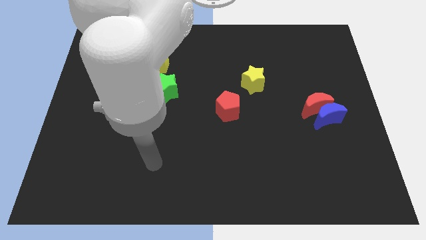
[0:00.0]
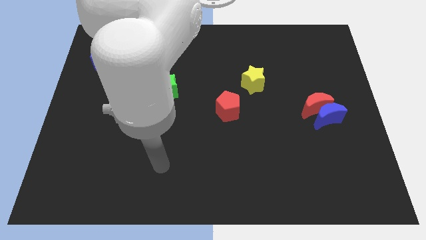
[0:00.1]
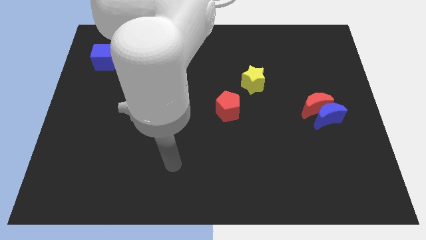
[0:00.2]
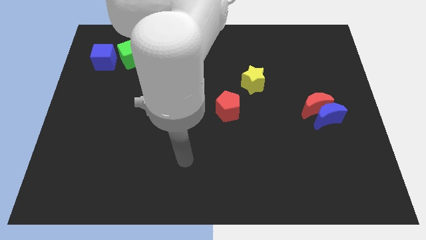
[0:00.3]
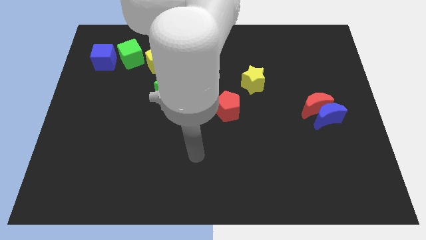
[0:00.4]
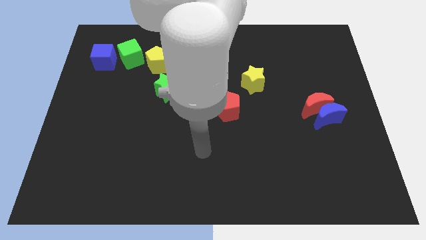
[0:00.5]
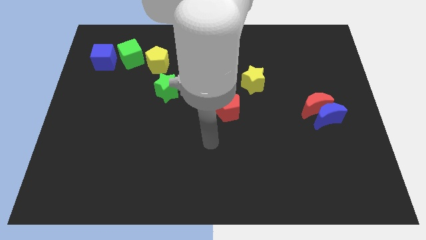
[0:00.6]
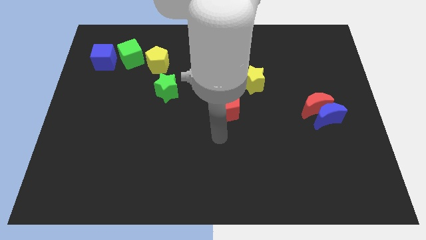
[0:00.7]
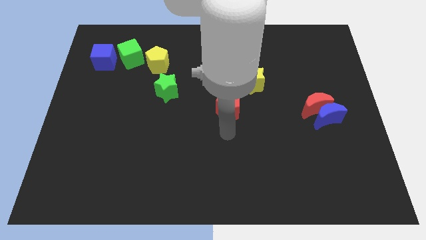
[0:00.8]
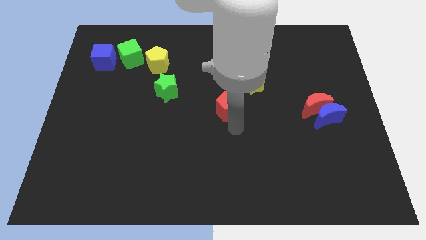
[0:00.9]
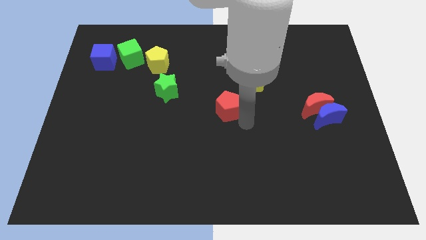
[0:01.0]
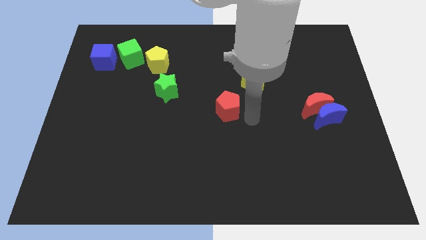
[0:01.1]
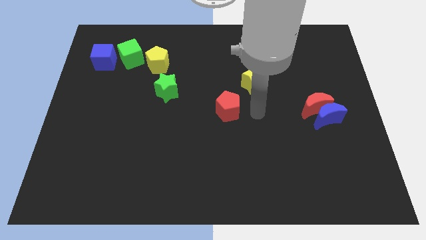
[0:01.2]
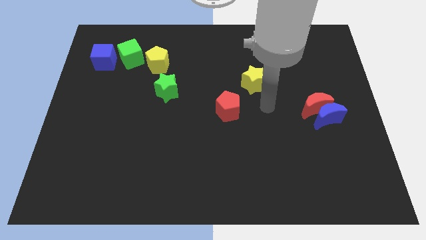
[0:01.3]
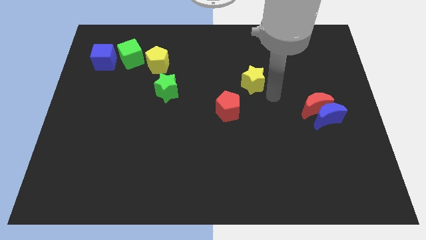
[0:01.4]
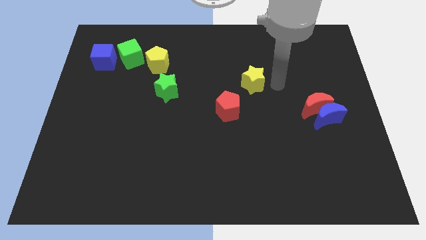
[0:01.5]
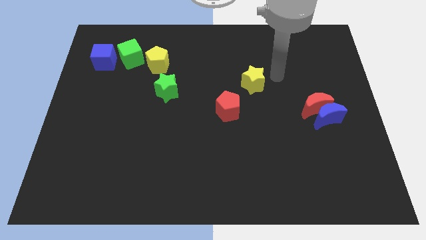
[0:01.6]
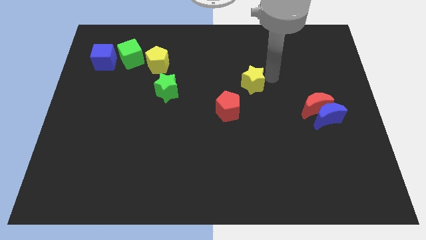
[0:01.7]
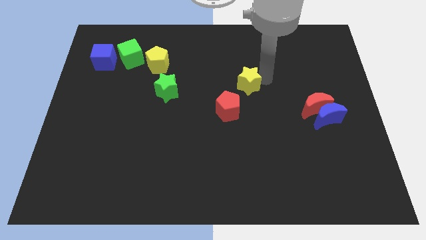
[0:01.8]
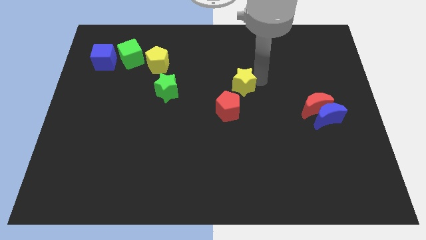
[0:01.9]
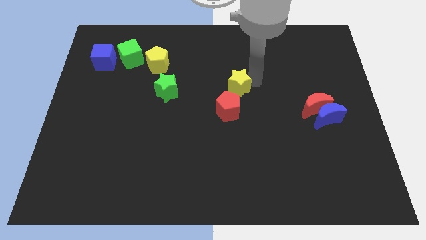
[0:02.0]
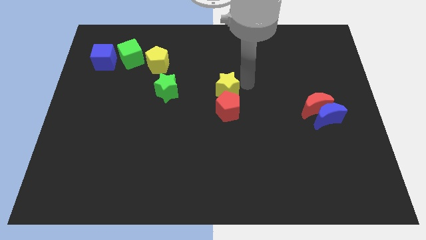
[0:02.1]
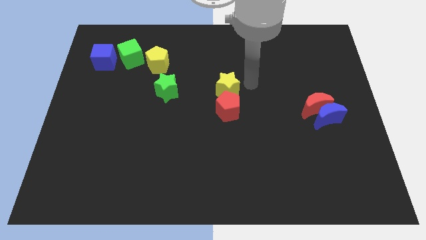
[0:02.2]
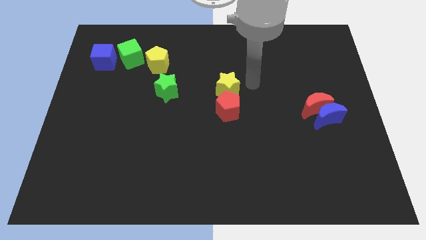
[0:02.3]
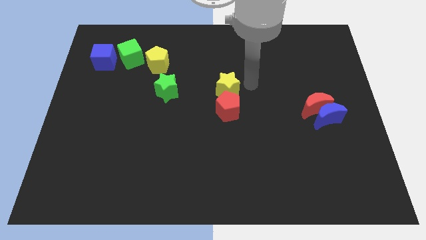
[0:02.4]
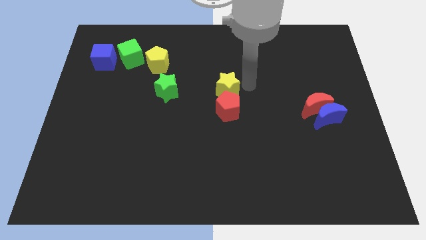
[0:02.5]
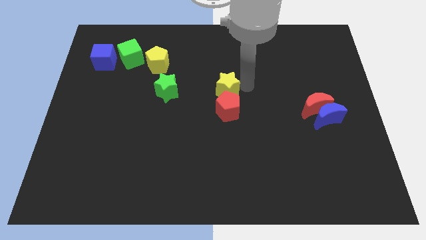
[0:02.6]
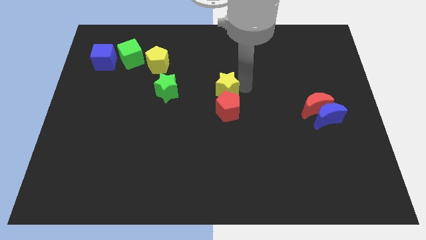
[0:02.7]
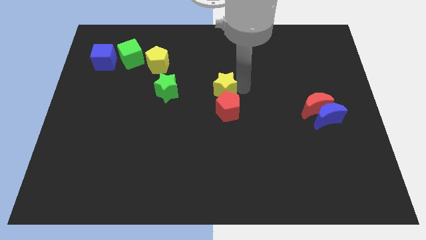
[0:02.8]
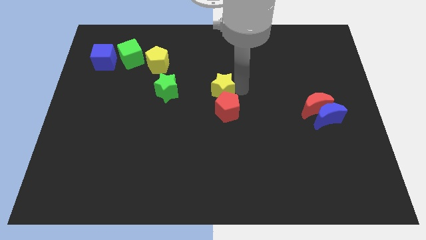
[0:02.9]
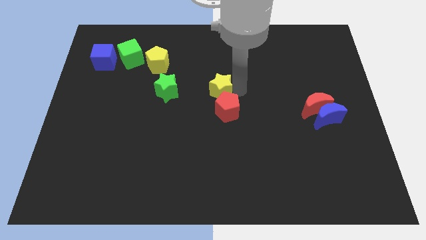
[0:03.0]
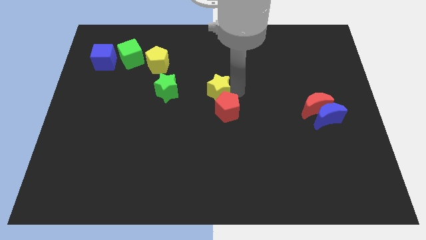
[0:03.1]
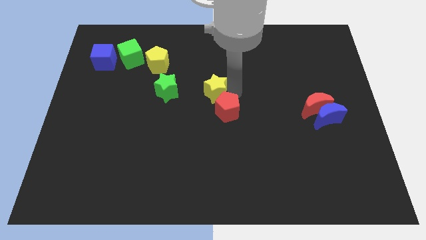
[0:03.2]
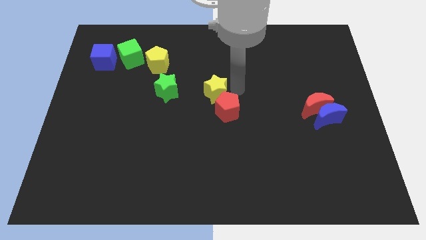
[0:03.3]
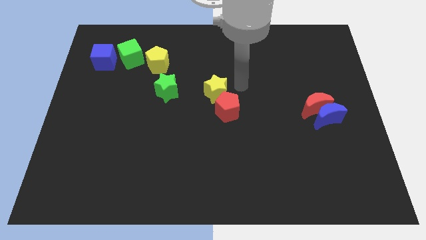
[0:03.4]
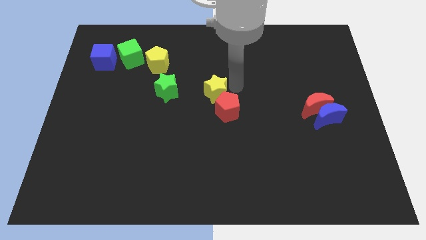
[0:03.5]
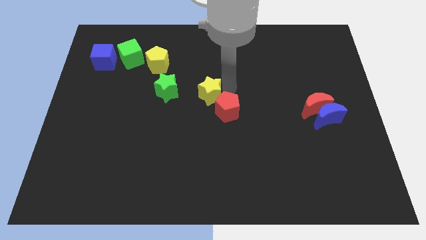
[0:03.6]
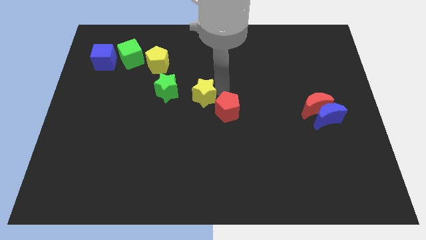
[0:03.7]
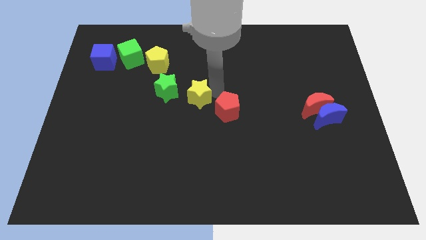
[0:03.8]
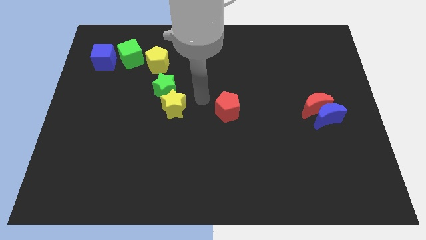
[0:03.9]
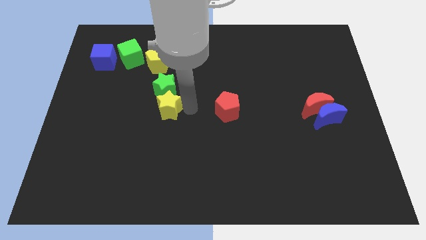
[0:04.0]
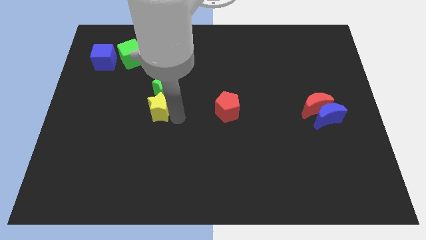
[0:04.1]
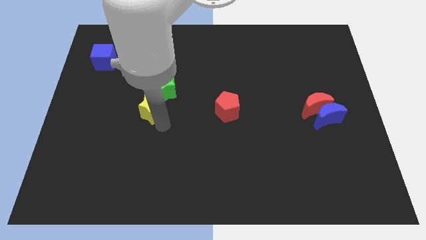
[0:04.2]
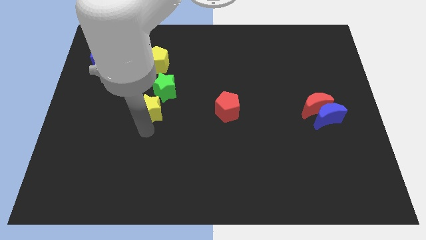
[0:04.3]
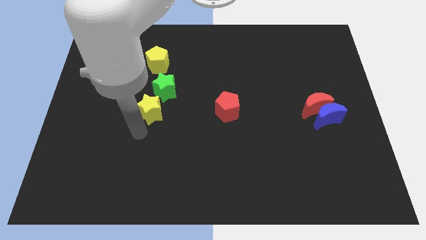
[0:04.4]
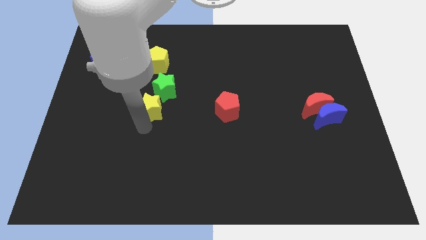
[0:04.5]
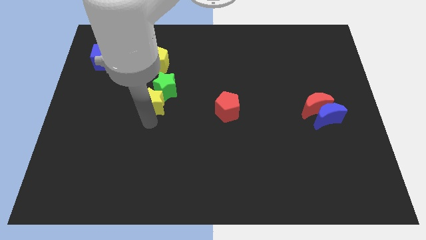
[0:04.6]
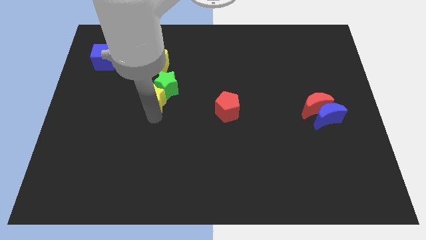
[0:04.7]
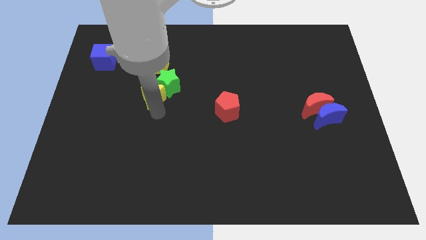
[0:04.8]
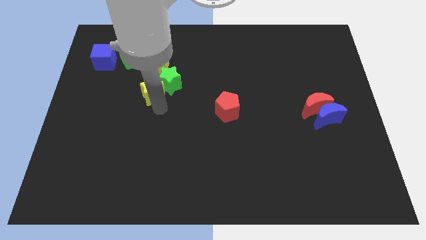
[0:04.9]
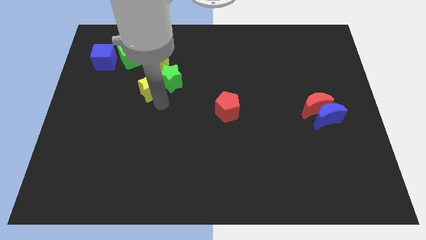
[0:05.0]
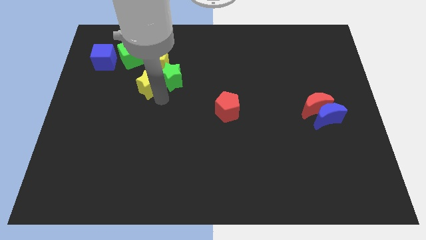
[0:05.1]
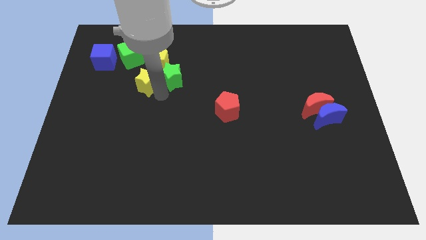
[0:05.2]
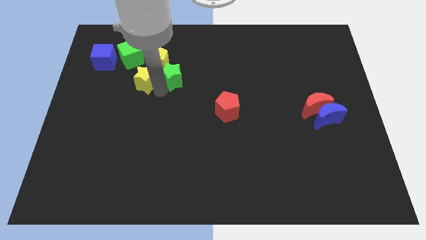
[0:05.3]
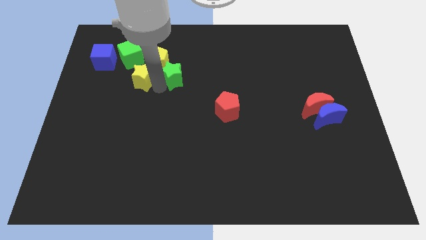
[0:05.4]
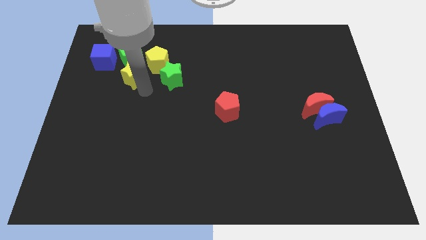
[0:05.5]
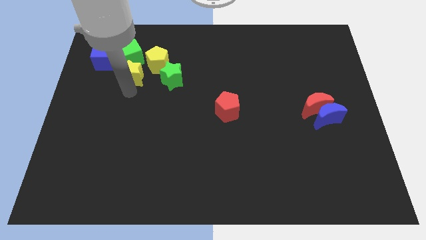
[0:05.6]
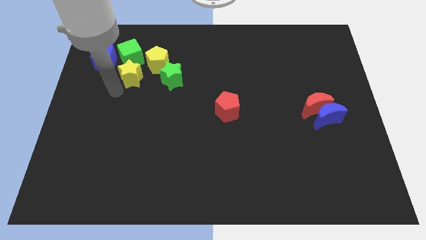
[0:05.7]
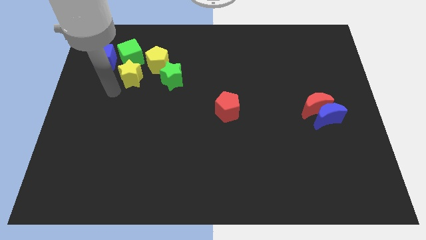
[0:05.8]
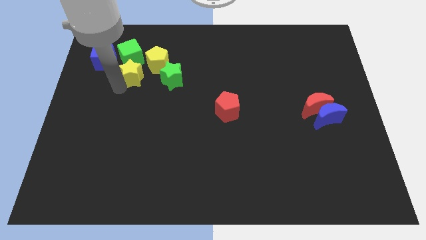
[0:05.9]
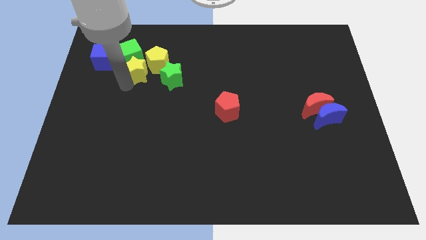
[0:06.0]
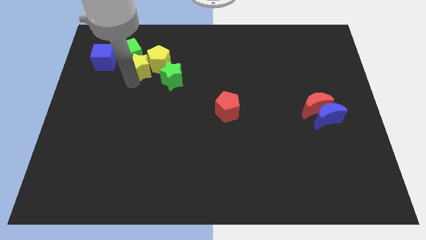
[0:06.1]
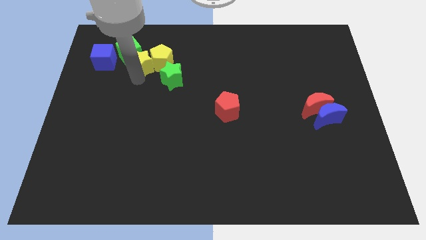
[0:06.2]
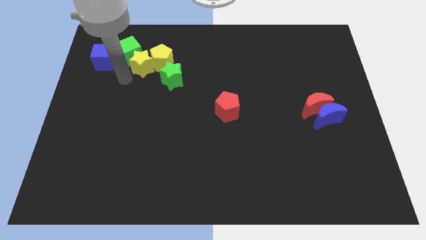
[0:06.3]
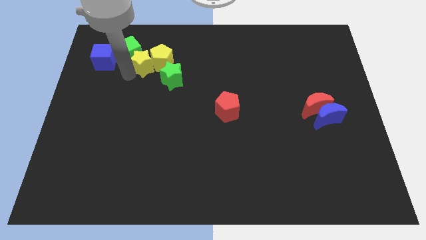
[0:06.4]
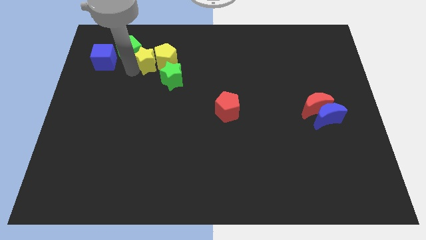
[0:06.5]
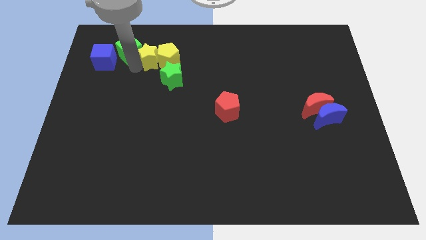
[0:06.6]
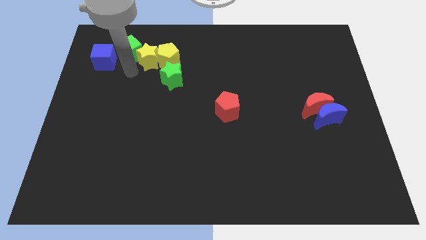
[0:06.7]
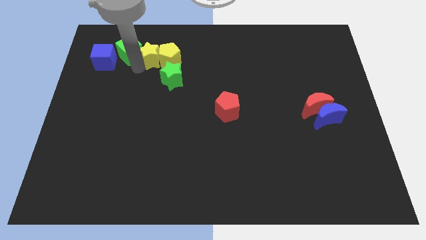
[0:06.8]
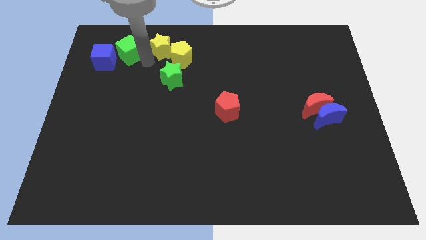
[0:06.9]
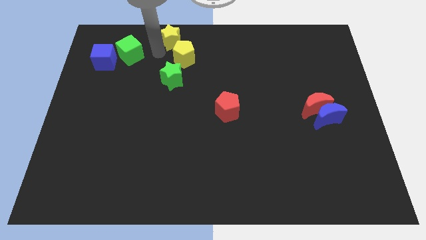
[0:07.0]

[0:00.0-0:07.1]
move the yellow star to the top side
